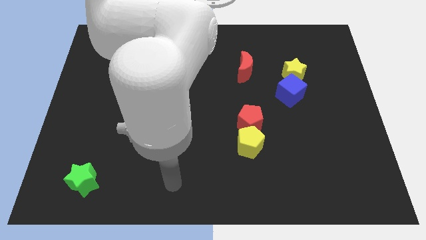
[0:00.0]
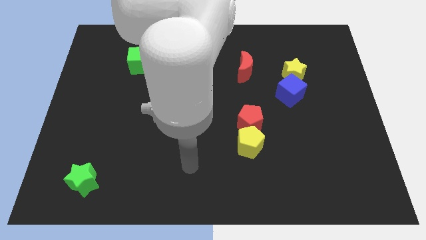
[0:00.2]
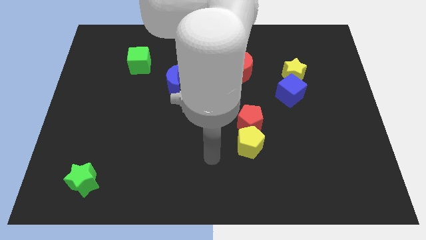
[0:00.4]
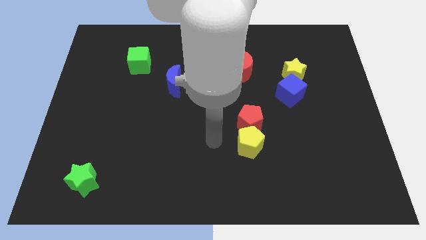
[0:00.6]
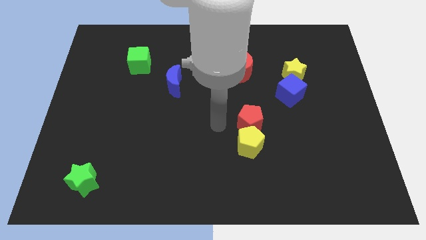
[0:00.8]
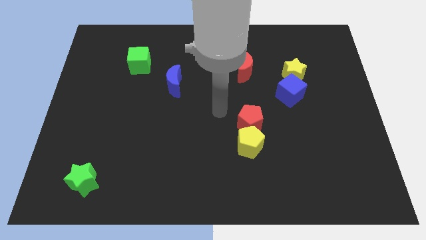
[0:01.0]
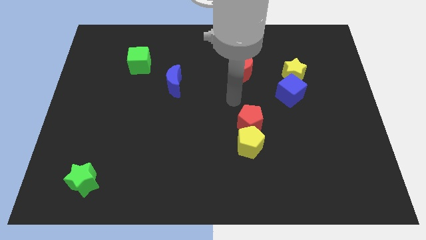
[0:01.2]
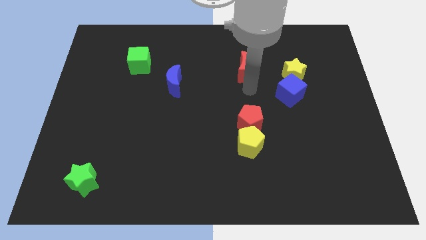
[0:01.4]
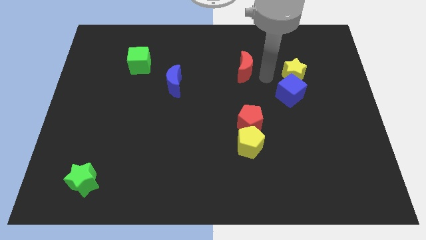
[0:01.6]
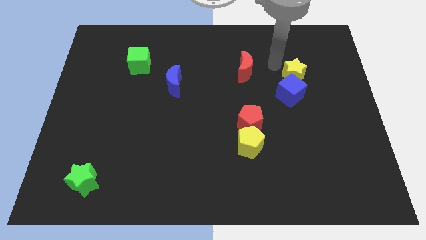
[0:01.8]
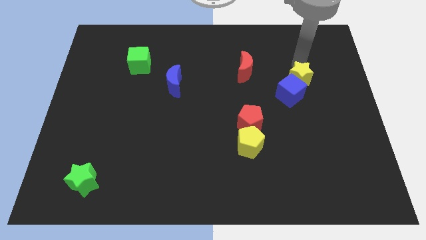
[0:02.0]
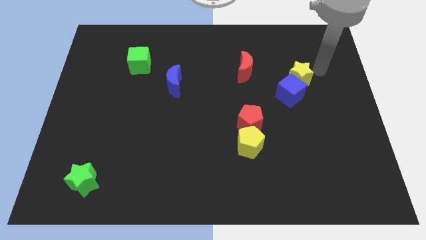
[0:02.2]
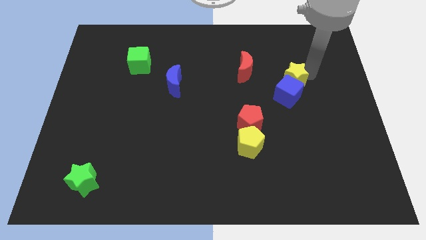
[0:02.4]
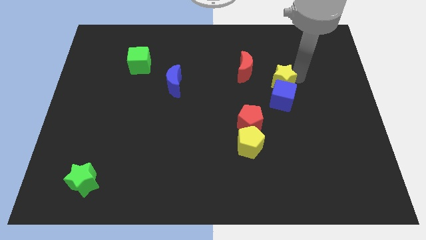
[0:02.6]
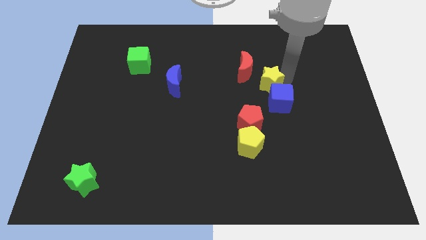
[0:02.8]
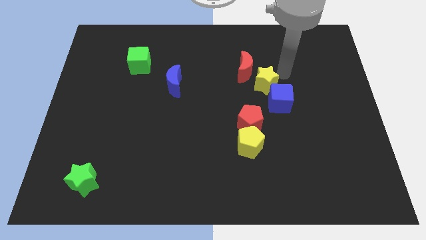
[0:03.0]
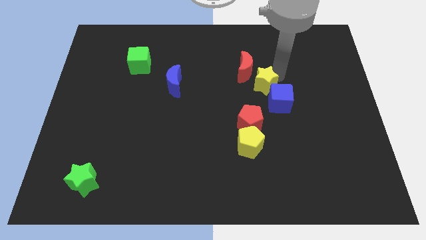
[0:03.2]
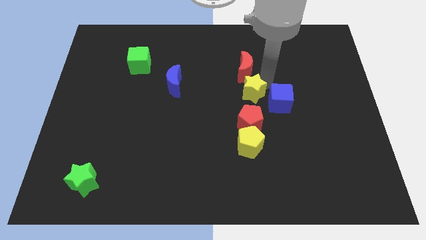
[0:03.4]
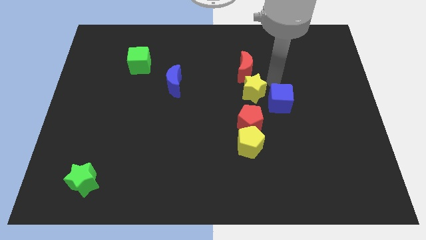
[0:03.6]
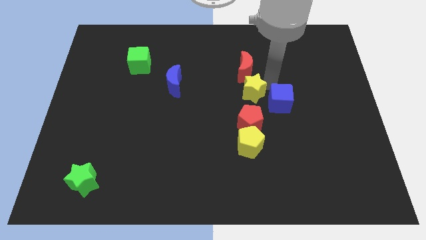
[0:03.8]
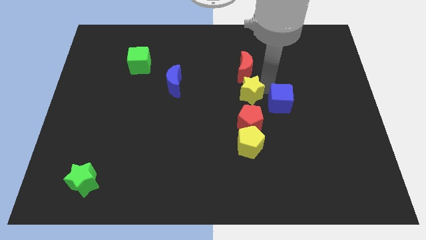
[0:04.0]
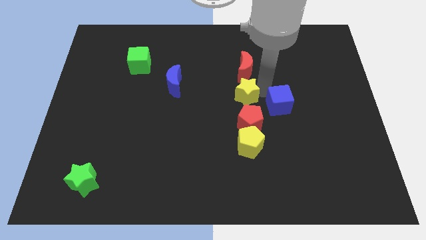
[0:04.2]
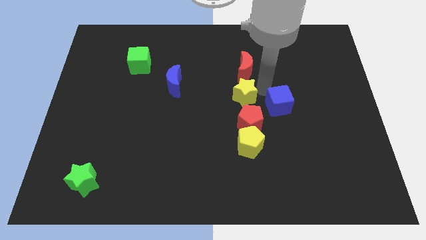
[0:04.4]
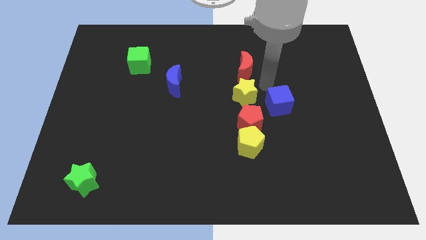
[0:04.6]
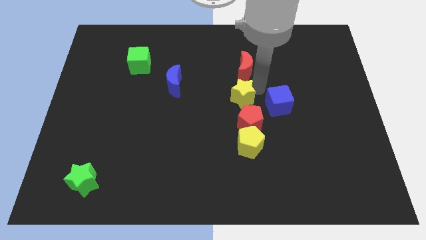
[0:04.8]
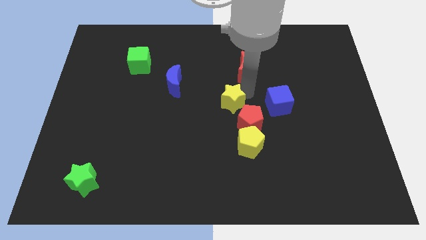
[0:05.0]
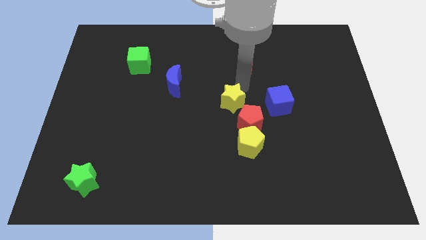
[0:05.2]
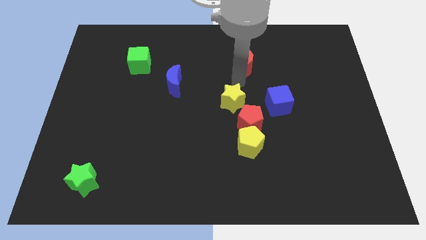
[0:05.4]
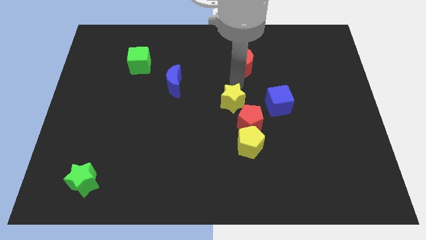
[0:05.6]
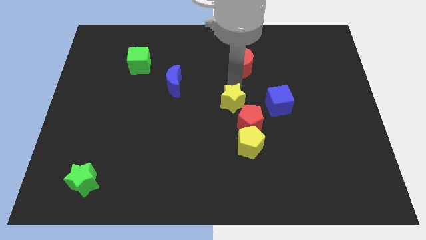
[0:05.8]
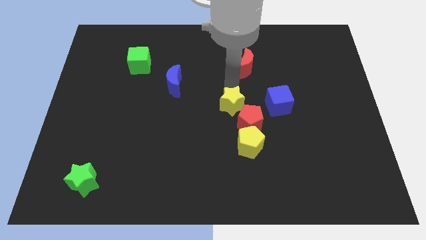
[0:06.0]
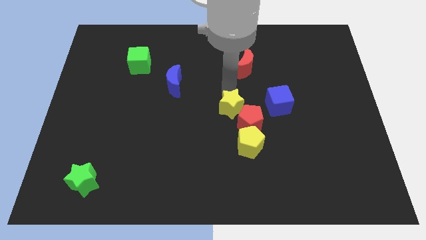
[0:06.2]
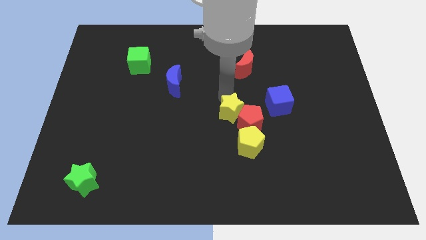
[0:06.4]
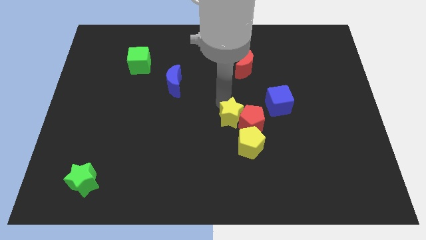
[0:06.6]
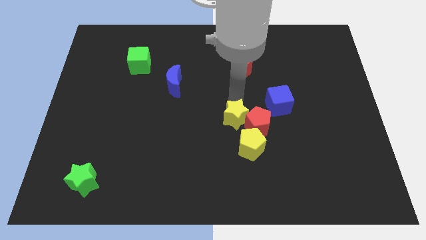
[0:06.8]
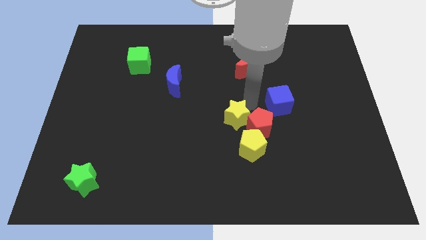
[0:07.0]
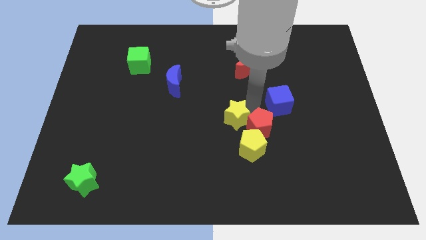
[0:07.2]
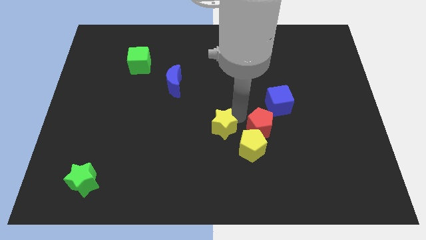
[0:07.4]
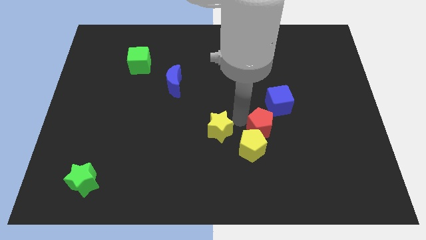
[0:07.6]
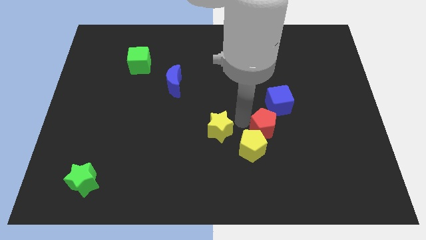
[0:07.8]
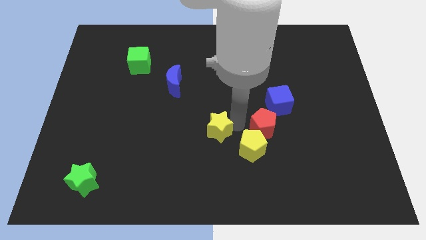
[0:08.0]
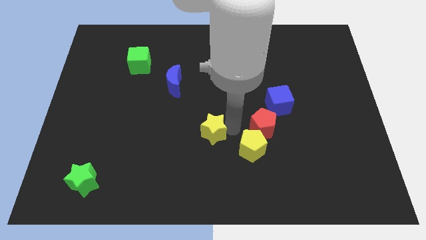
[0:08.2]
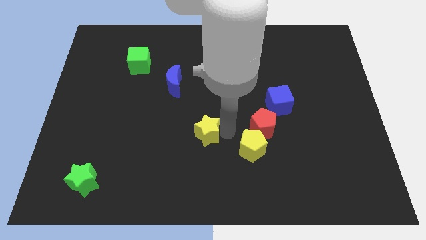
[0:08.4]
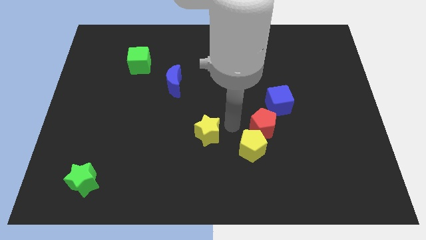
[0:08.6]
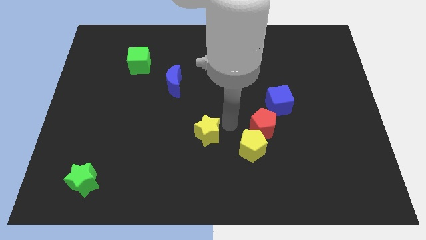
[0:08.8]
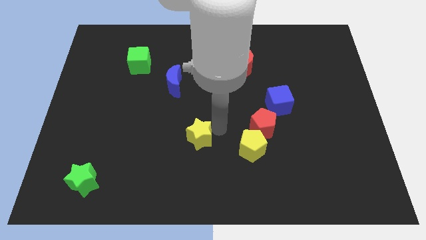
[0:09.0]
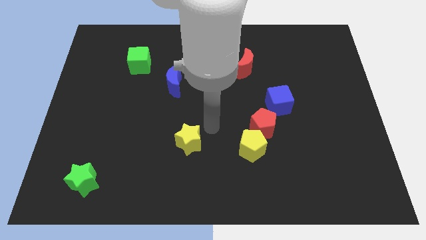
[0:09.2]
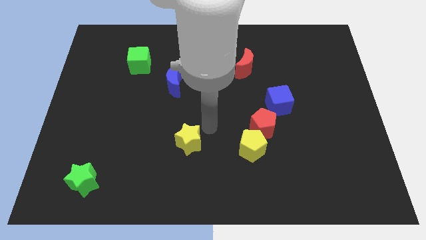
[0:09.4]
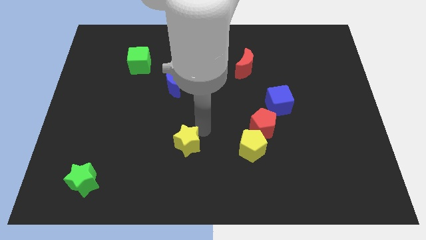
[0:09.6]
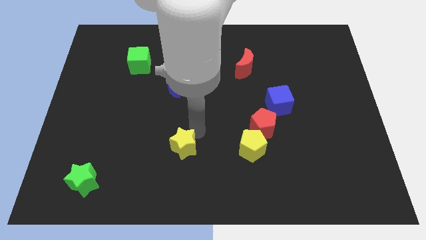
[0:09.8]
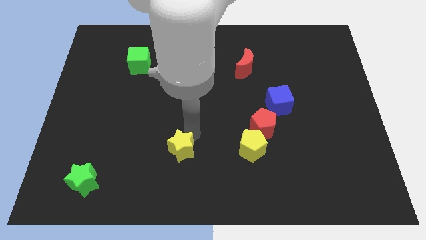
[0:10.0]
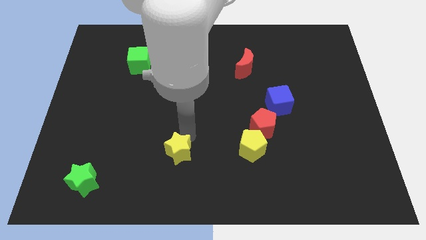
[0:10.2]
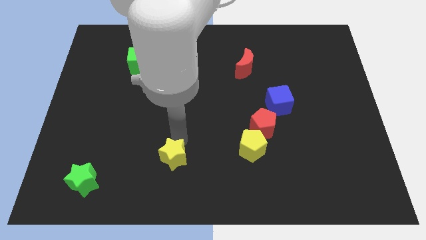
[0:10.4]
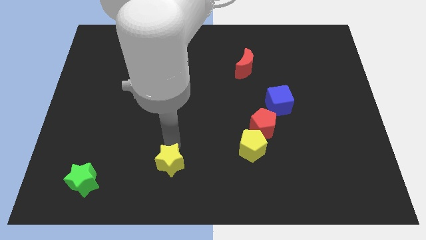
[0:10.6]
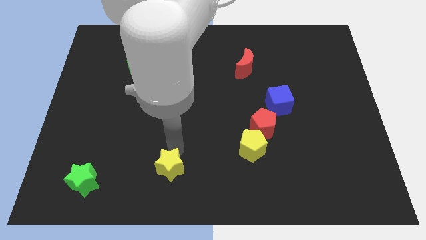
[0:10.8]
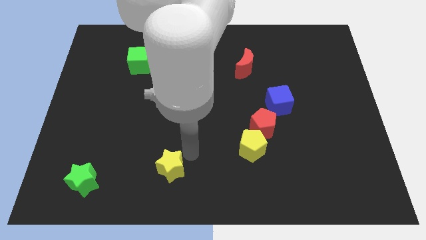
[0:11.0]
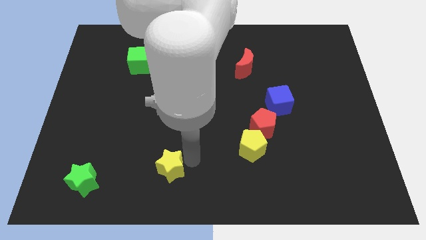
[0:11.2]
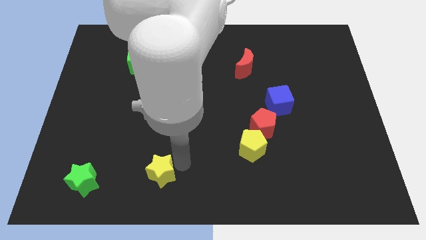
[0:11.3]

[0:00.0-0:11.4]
move the yellow star to the right side of the green star

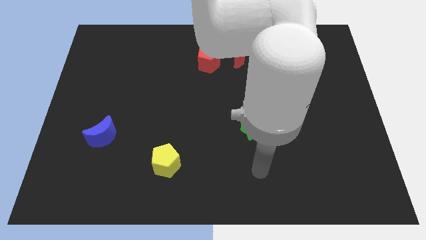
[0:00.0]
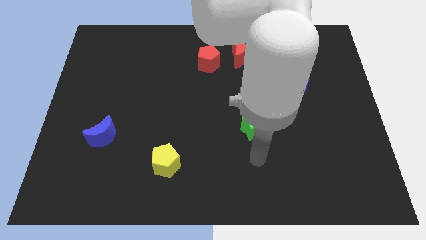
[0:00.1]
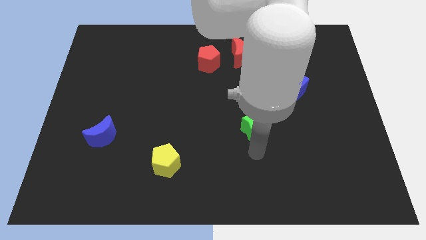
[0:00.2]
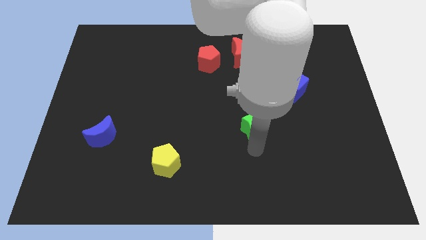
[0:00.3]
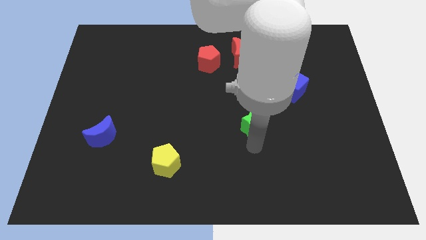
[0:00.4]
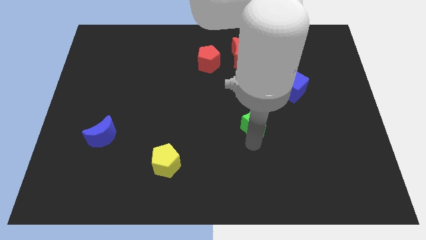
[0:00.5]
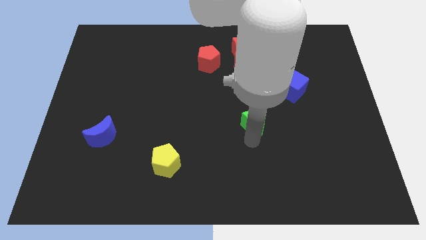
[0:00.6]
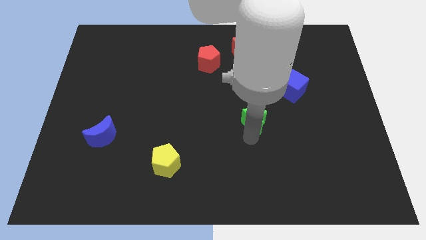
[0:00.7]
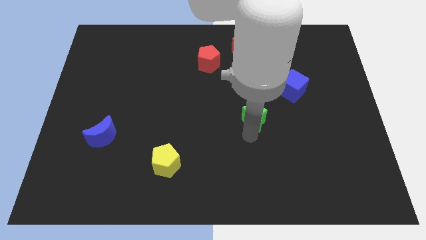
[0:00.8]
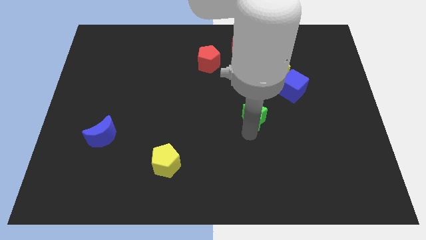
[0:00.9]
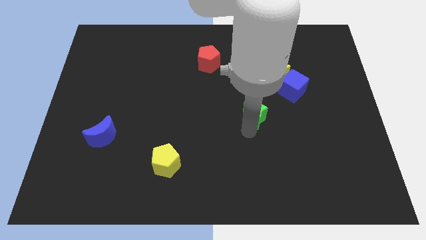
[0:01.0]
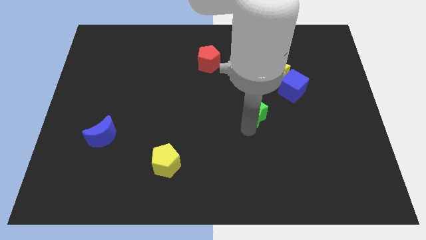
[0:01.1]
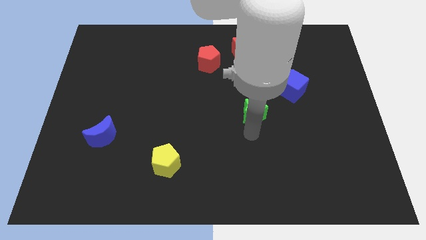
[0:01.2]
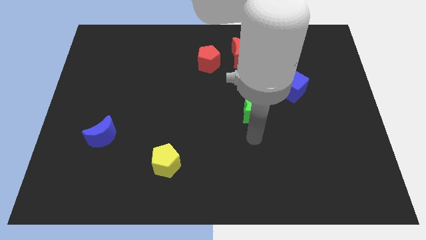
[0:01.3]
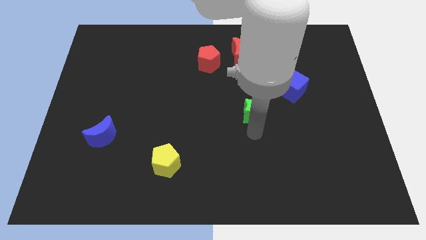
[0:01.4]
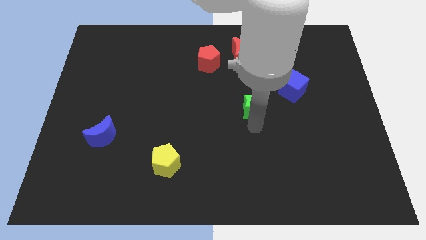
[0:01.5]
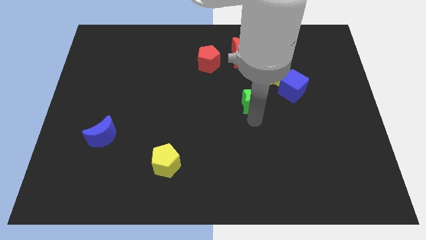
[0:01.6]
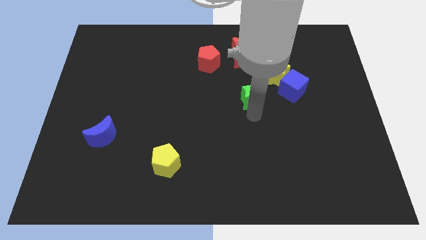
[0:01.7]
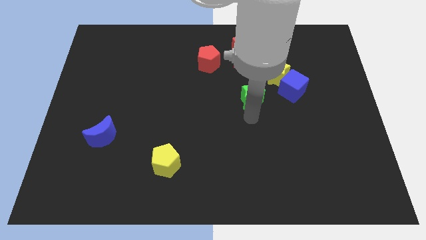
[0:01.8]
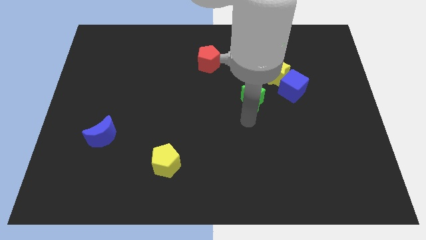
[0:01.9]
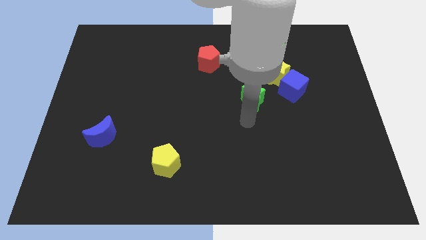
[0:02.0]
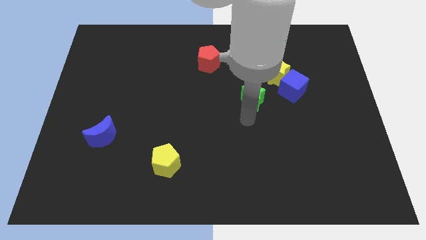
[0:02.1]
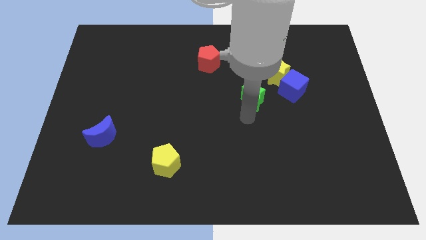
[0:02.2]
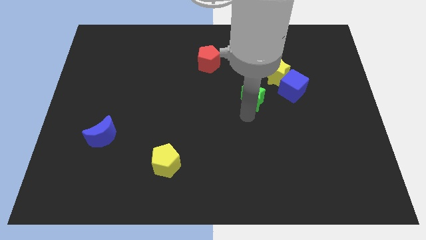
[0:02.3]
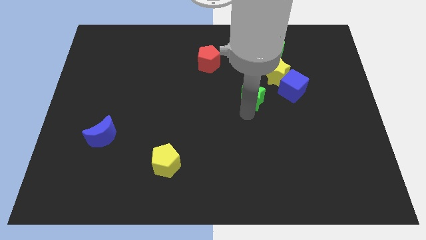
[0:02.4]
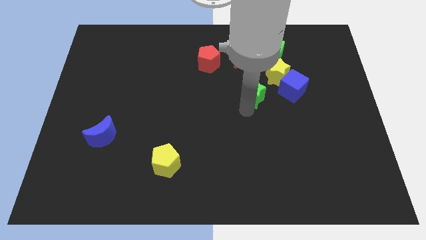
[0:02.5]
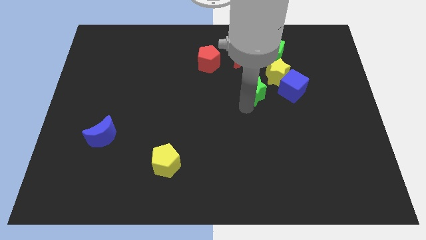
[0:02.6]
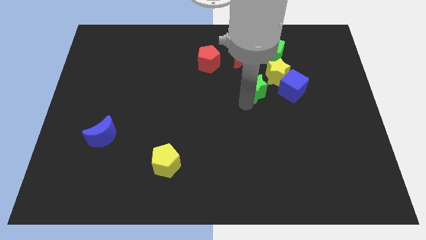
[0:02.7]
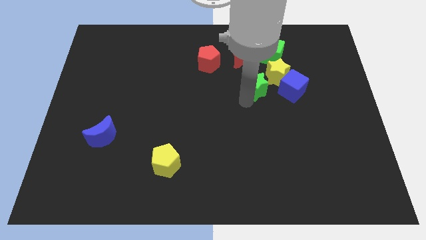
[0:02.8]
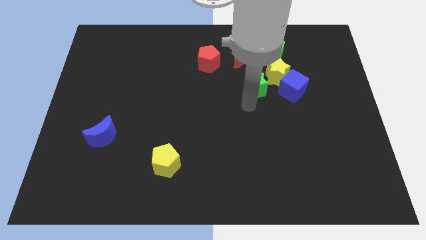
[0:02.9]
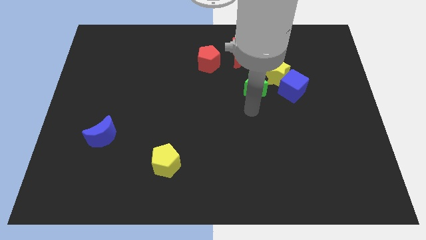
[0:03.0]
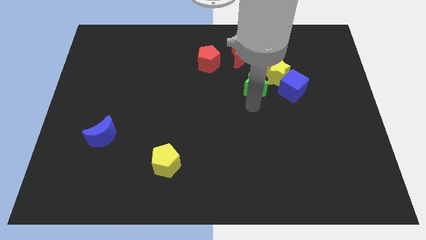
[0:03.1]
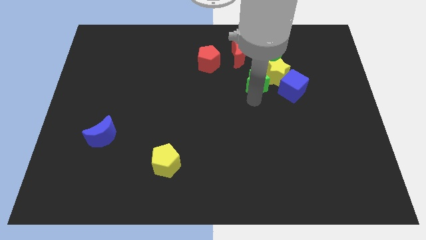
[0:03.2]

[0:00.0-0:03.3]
push the green star to the bottom right side of the red moon
